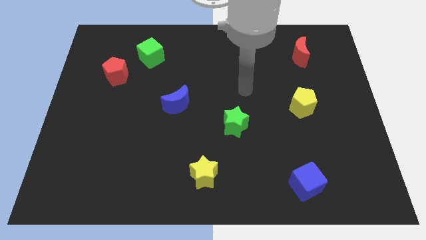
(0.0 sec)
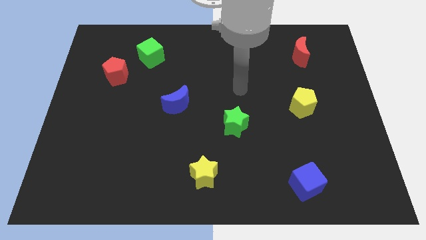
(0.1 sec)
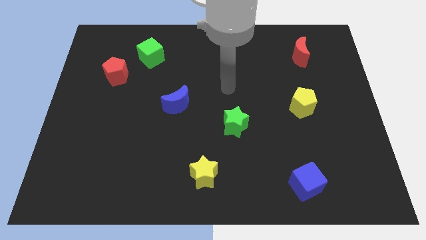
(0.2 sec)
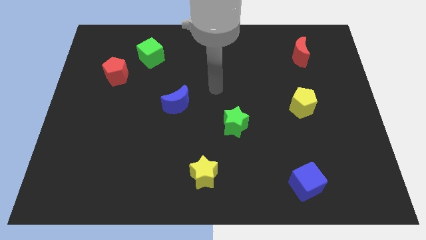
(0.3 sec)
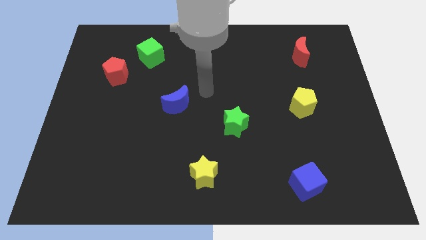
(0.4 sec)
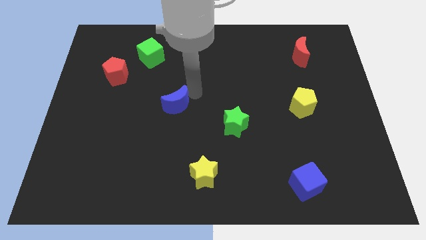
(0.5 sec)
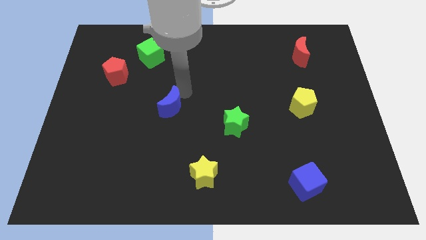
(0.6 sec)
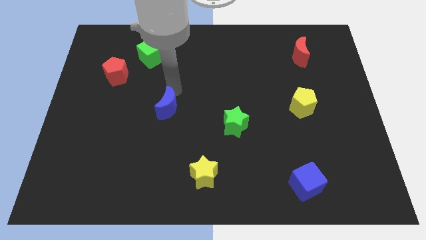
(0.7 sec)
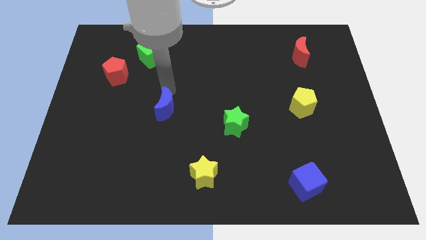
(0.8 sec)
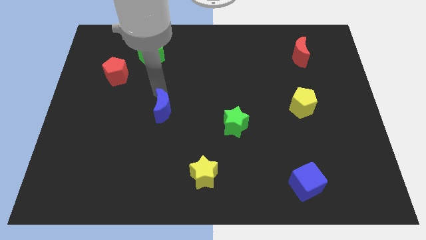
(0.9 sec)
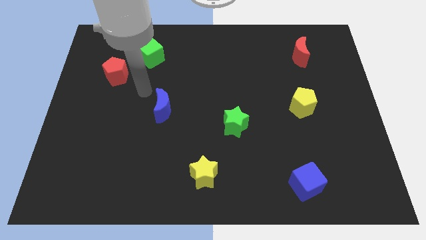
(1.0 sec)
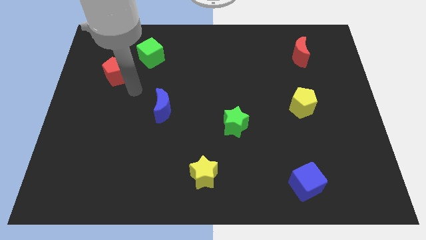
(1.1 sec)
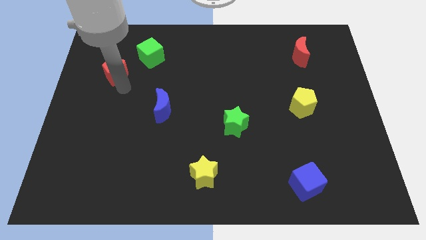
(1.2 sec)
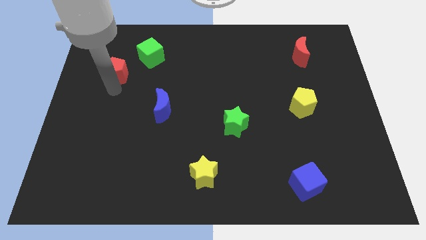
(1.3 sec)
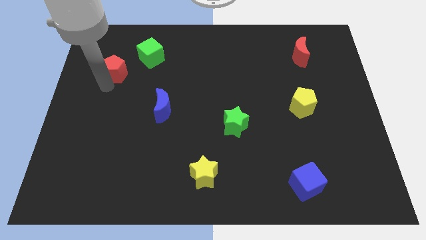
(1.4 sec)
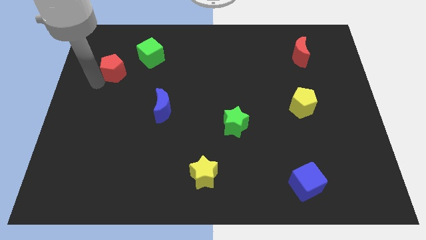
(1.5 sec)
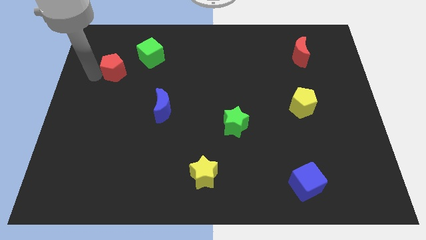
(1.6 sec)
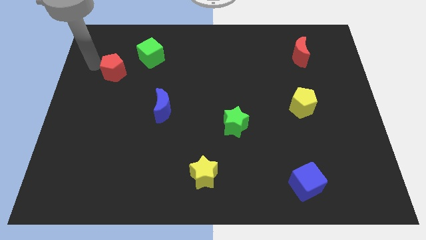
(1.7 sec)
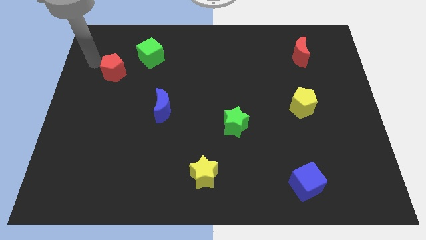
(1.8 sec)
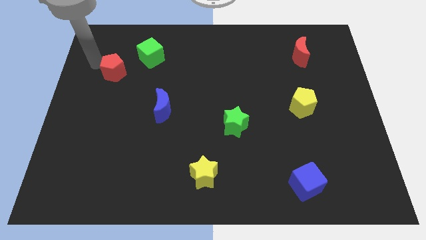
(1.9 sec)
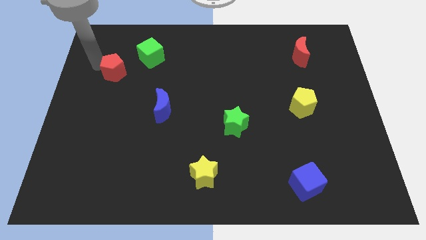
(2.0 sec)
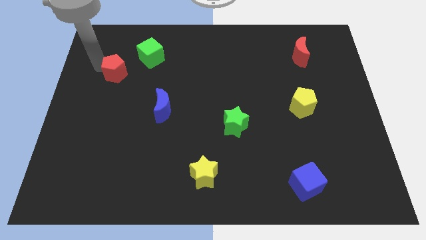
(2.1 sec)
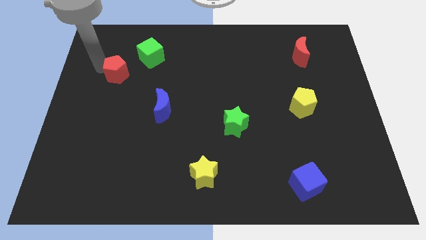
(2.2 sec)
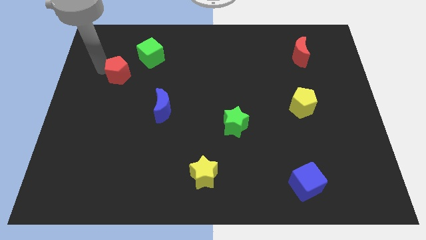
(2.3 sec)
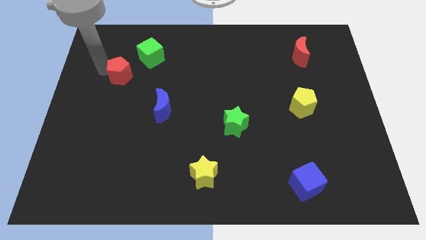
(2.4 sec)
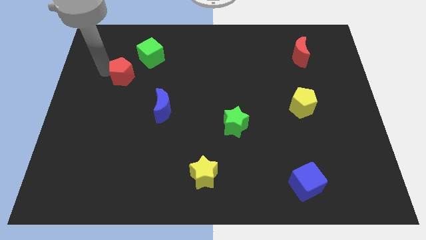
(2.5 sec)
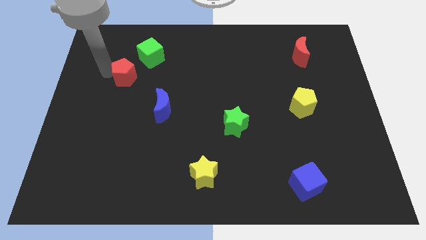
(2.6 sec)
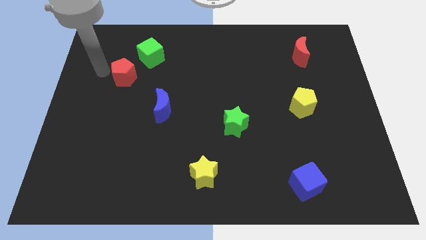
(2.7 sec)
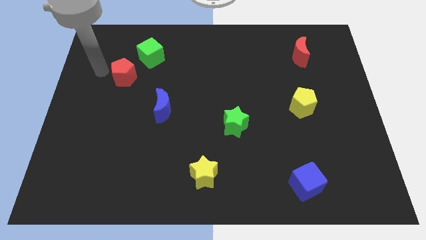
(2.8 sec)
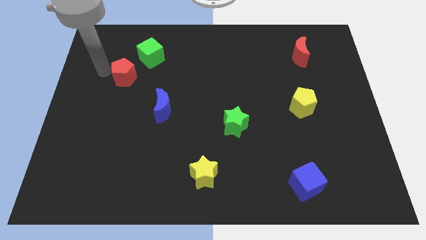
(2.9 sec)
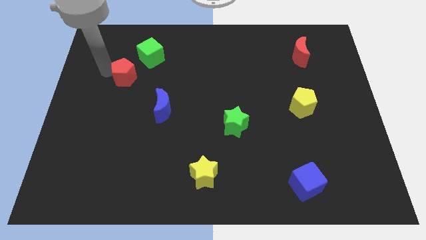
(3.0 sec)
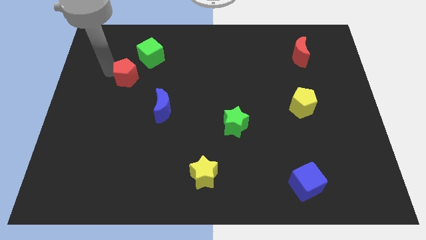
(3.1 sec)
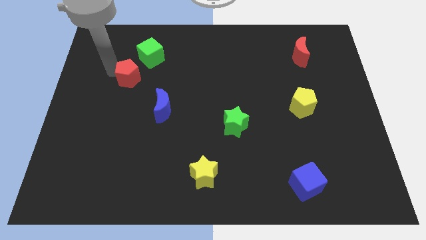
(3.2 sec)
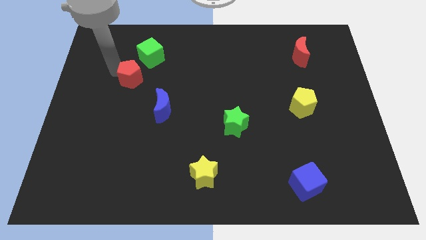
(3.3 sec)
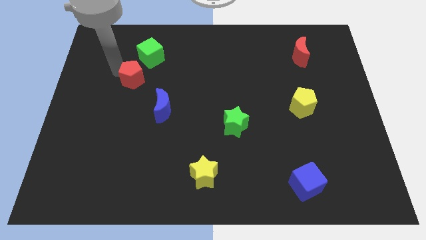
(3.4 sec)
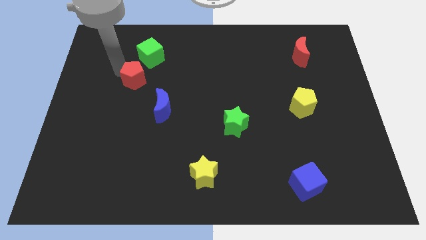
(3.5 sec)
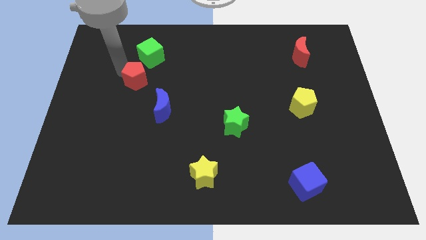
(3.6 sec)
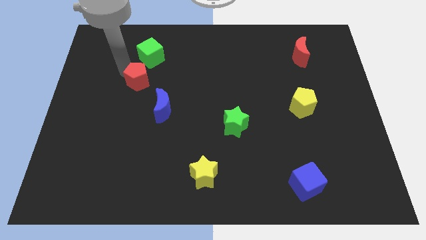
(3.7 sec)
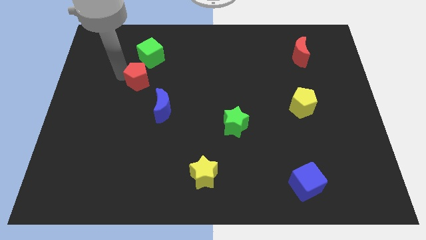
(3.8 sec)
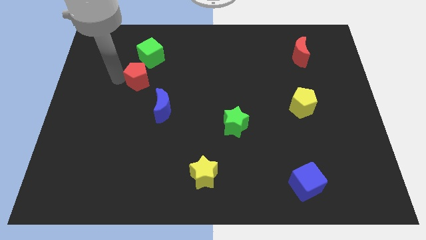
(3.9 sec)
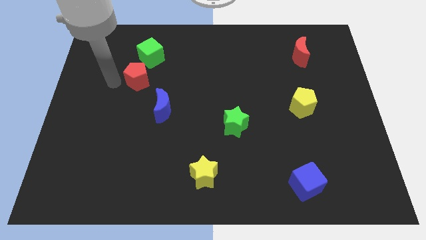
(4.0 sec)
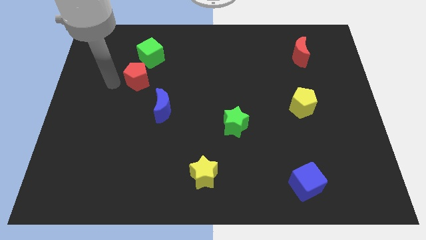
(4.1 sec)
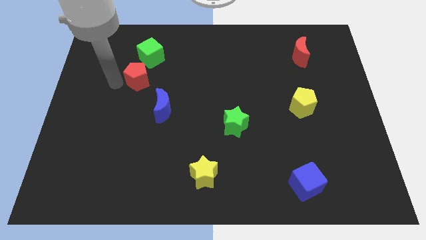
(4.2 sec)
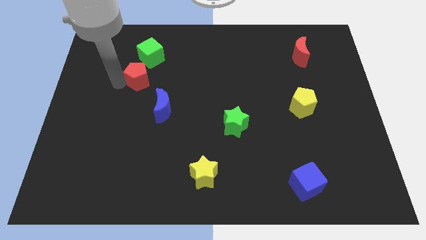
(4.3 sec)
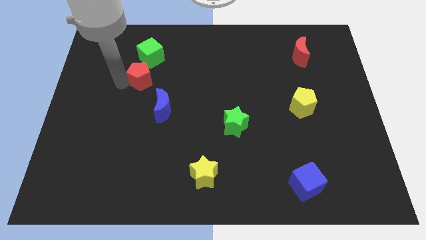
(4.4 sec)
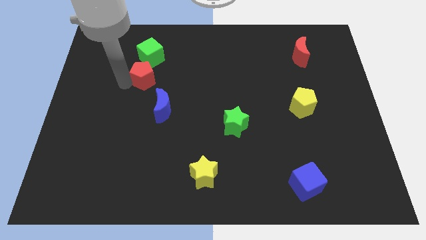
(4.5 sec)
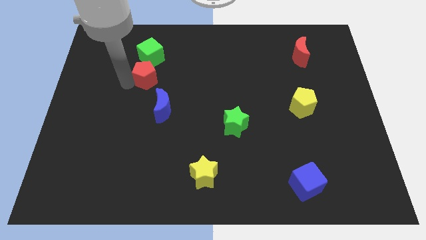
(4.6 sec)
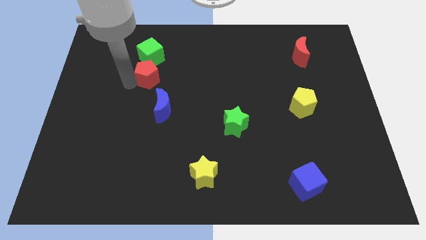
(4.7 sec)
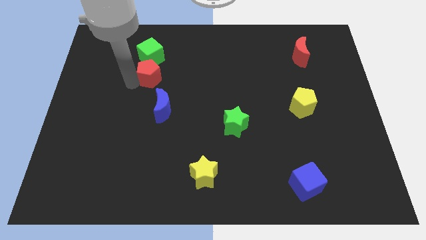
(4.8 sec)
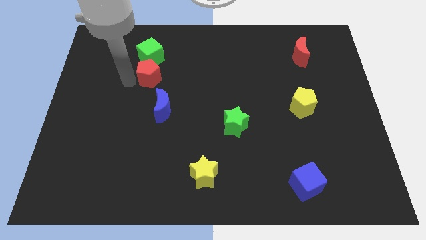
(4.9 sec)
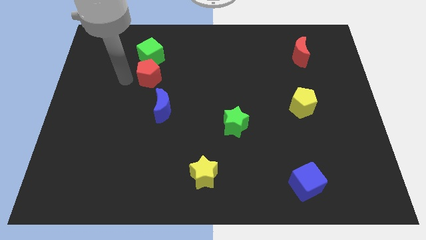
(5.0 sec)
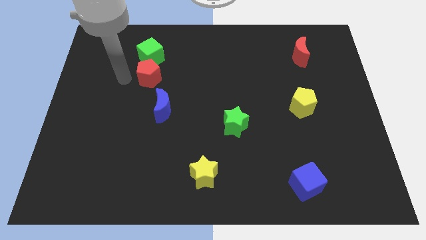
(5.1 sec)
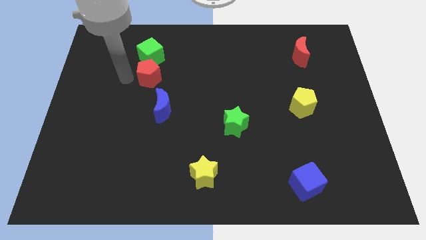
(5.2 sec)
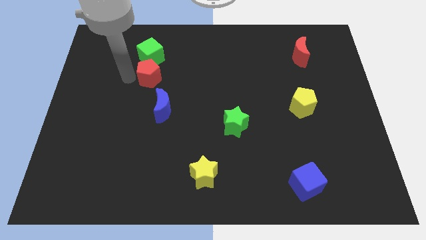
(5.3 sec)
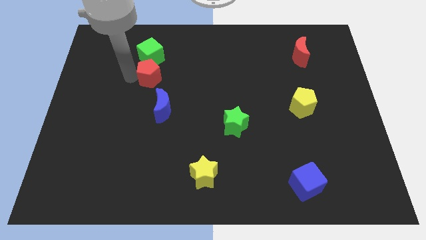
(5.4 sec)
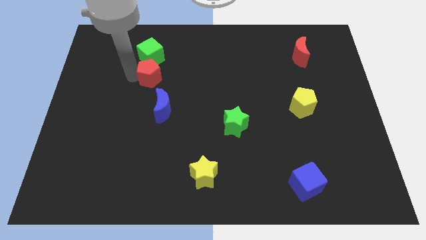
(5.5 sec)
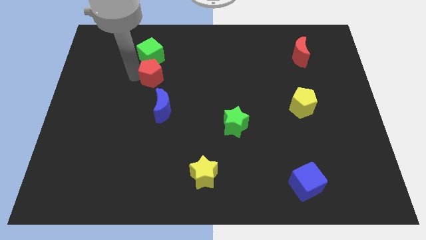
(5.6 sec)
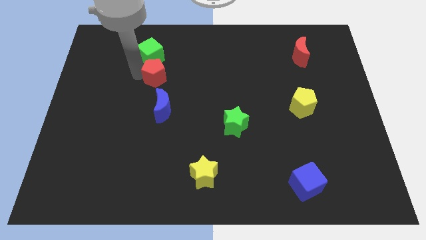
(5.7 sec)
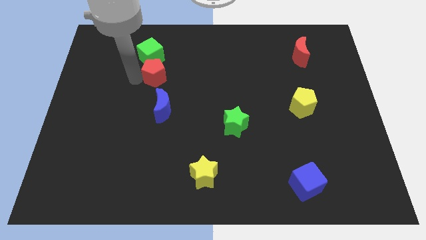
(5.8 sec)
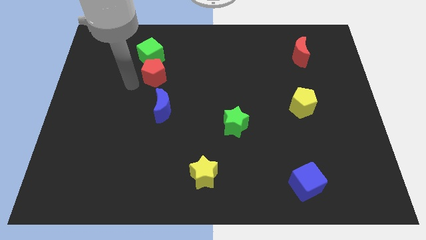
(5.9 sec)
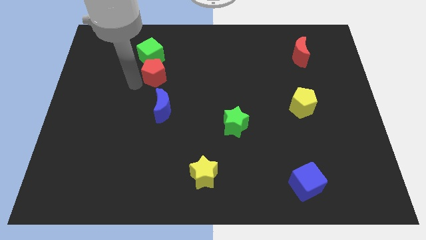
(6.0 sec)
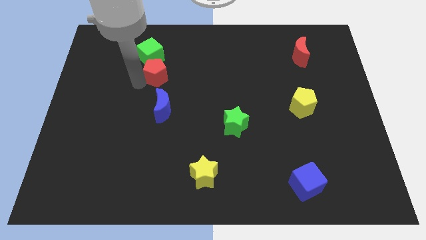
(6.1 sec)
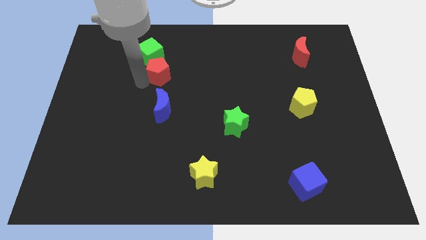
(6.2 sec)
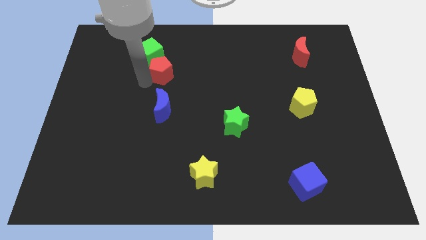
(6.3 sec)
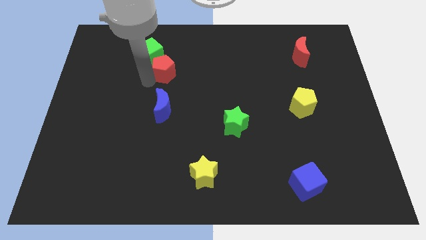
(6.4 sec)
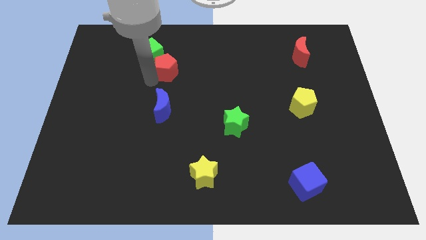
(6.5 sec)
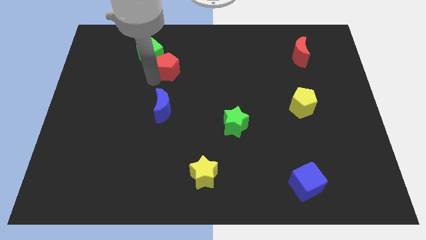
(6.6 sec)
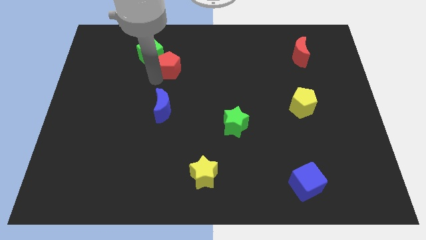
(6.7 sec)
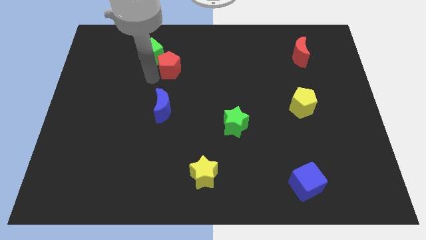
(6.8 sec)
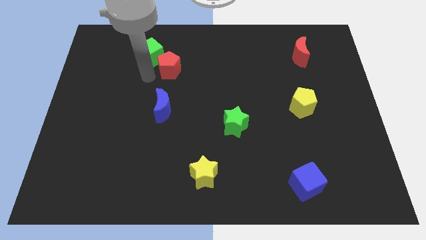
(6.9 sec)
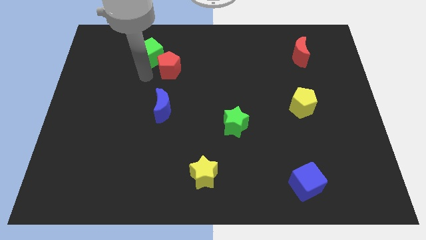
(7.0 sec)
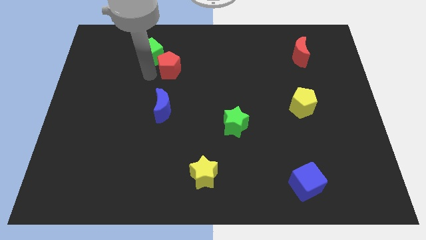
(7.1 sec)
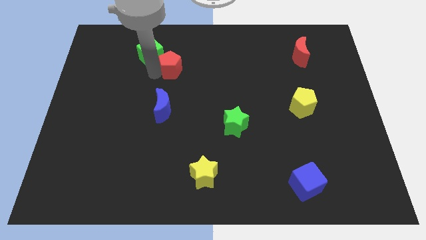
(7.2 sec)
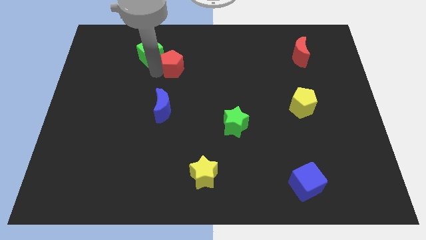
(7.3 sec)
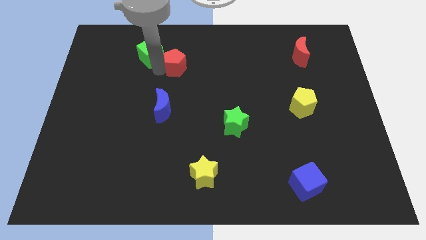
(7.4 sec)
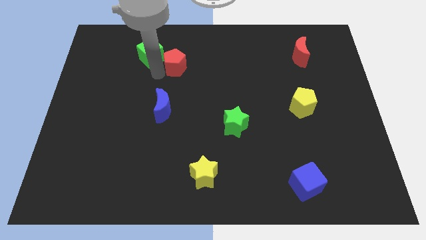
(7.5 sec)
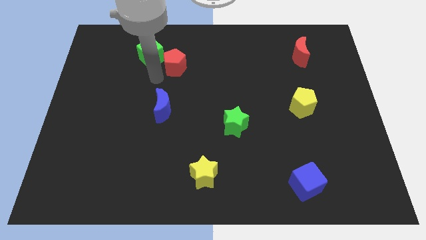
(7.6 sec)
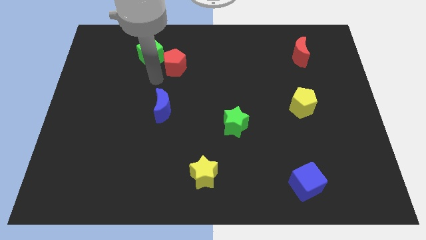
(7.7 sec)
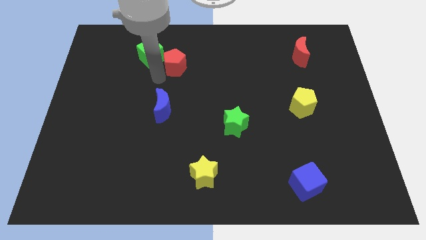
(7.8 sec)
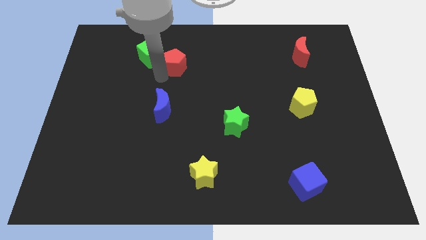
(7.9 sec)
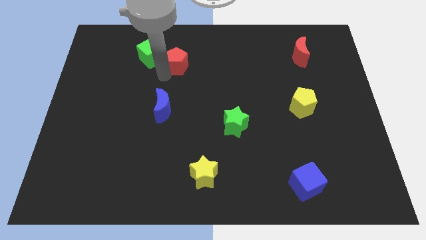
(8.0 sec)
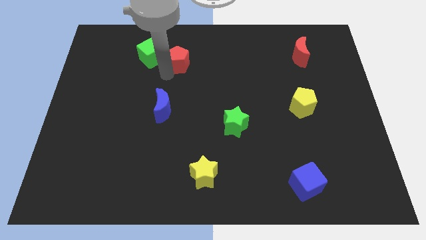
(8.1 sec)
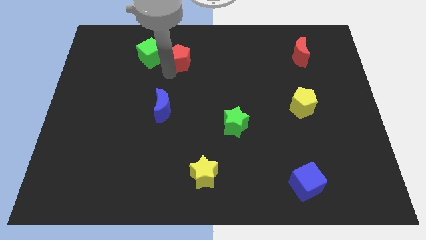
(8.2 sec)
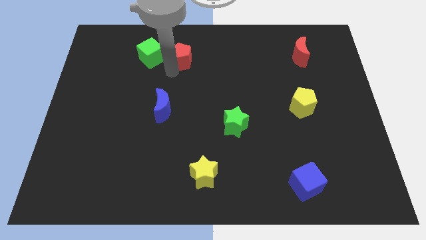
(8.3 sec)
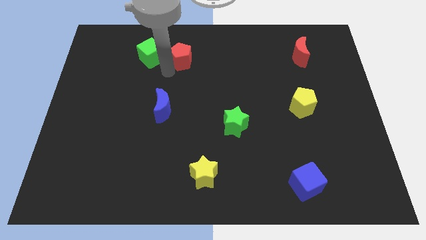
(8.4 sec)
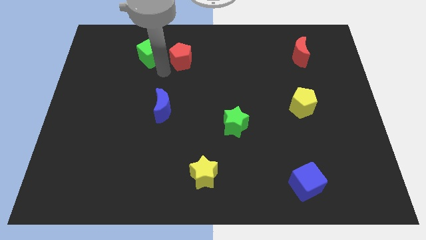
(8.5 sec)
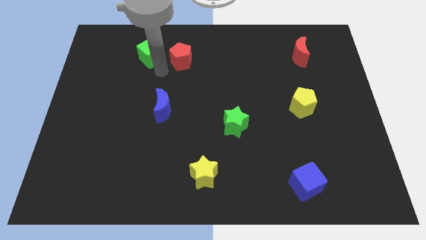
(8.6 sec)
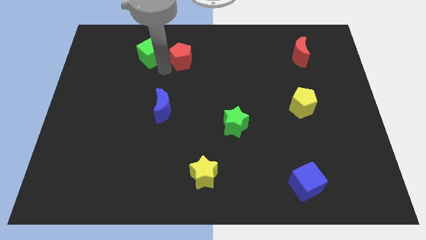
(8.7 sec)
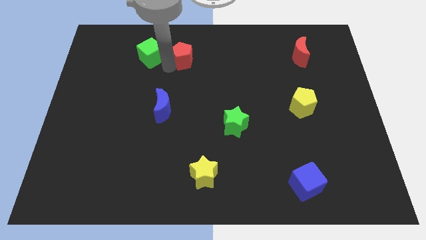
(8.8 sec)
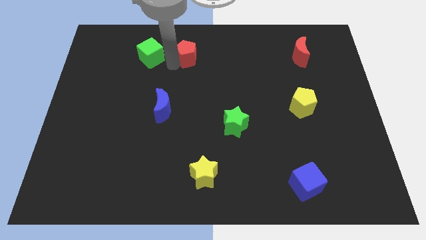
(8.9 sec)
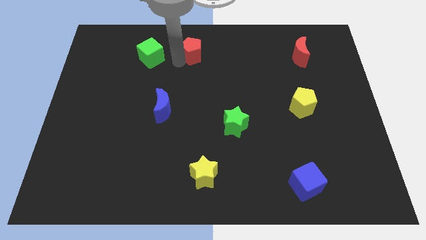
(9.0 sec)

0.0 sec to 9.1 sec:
move the red pentagon to the top side
